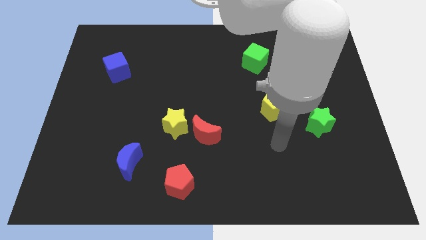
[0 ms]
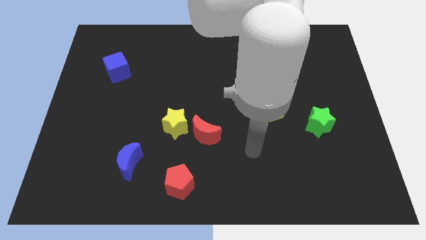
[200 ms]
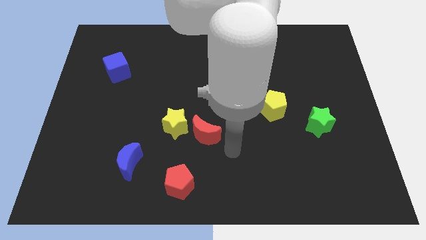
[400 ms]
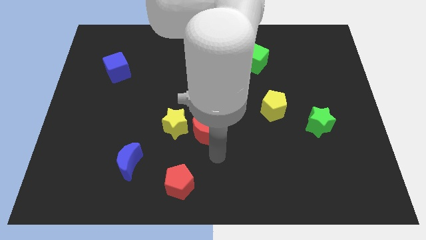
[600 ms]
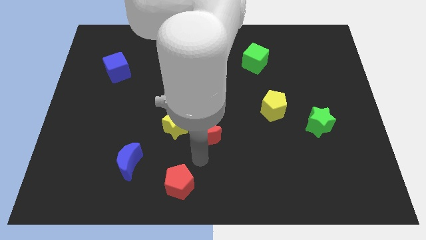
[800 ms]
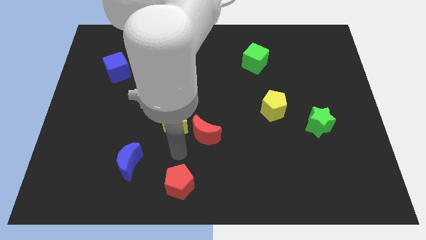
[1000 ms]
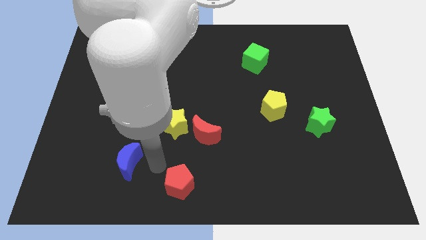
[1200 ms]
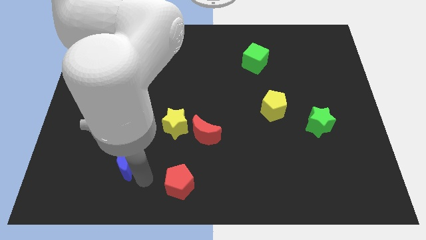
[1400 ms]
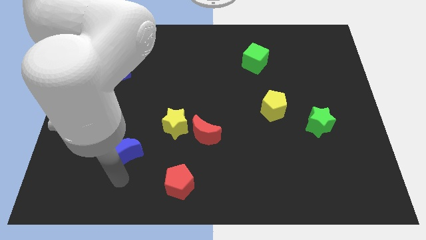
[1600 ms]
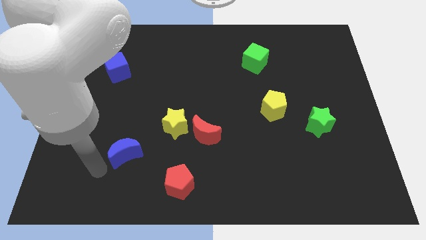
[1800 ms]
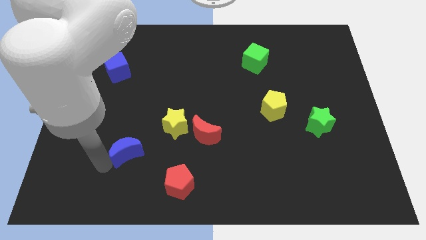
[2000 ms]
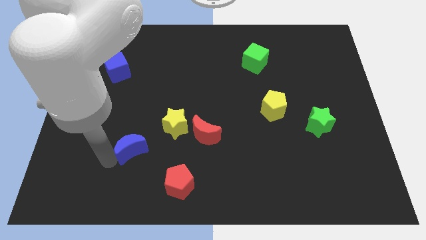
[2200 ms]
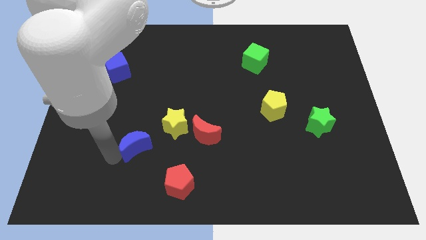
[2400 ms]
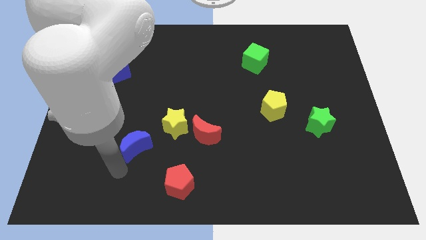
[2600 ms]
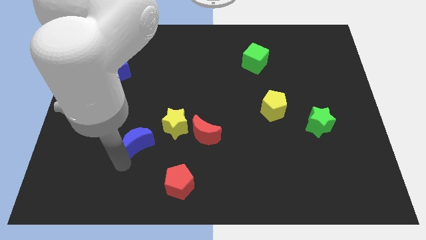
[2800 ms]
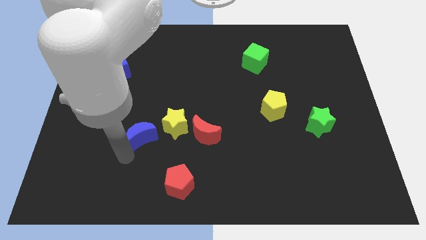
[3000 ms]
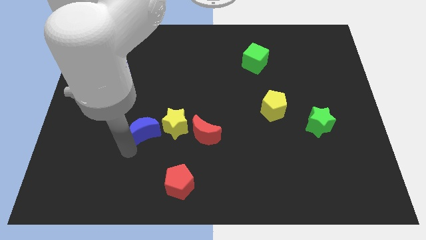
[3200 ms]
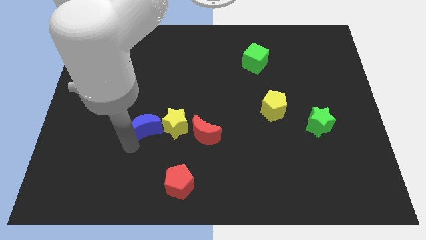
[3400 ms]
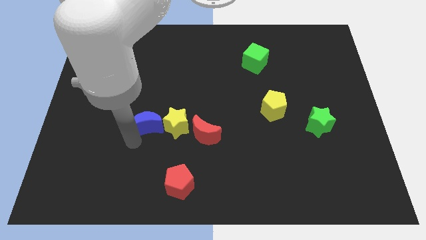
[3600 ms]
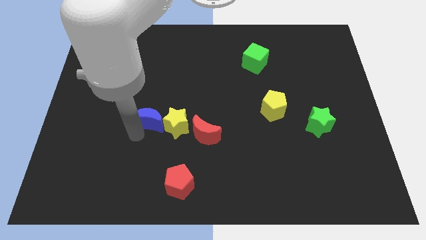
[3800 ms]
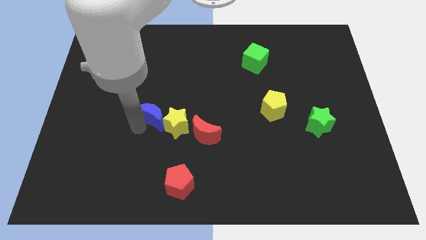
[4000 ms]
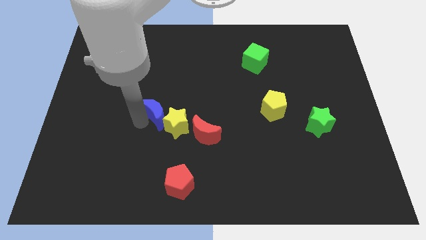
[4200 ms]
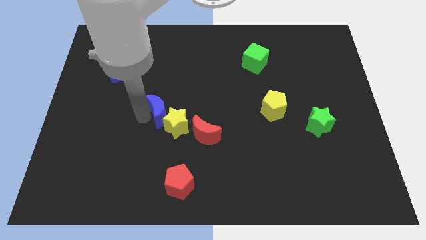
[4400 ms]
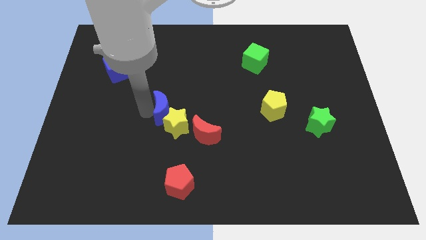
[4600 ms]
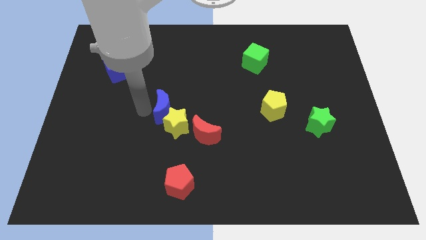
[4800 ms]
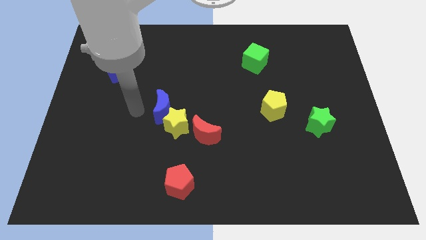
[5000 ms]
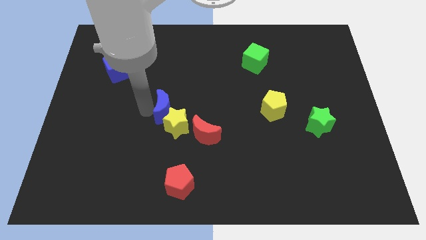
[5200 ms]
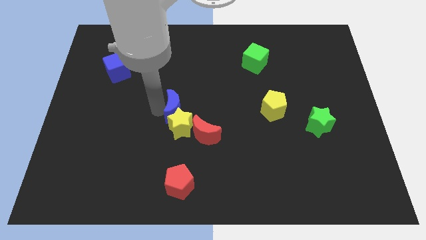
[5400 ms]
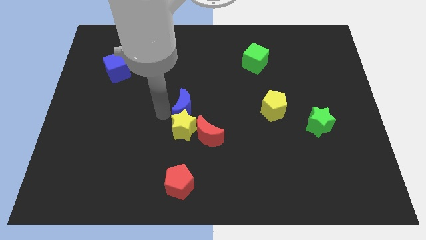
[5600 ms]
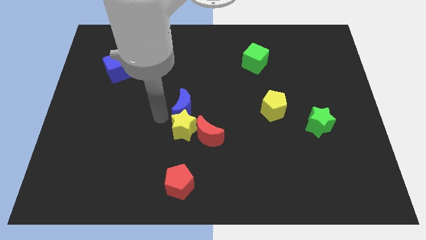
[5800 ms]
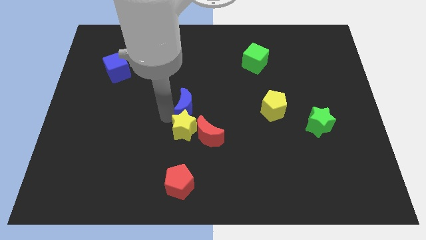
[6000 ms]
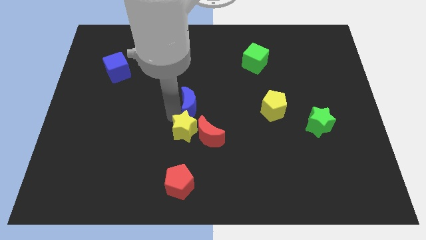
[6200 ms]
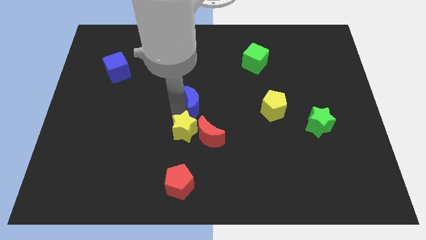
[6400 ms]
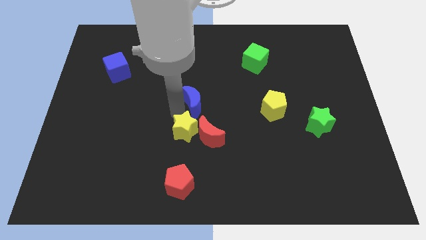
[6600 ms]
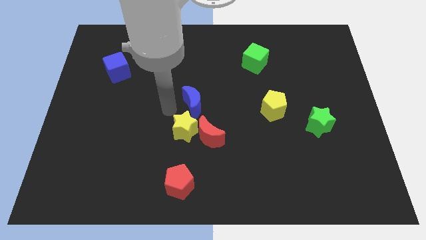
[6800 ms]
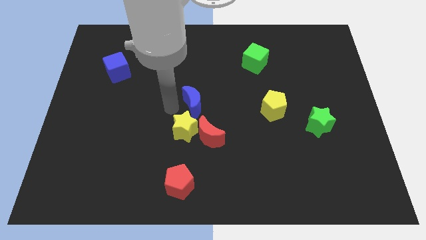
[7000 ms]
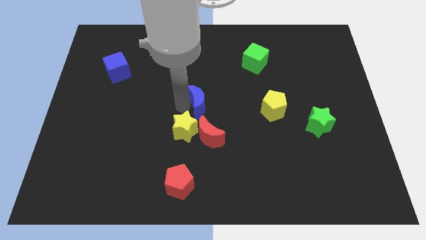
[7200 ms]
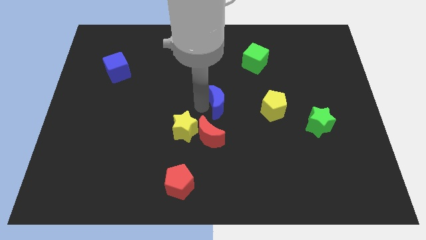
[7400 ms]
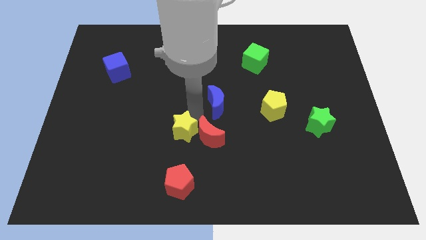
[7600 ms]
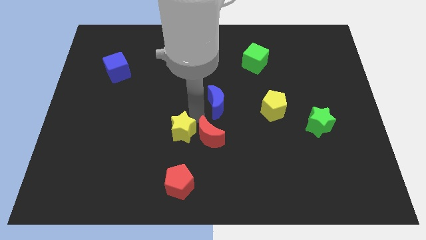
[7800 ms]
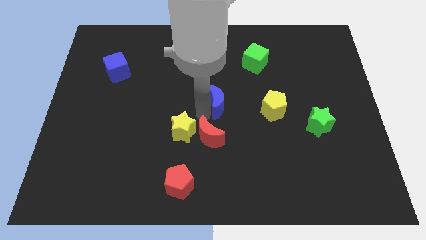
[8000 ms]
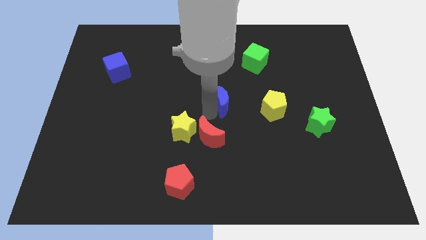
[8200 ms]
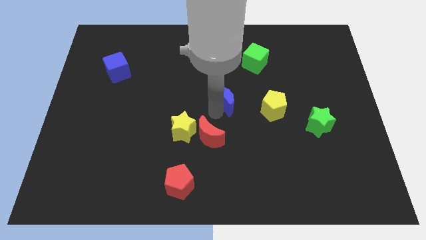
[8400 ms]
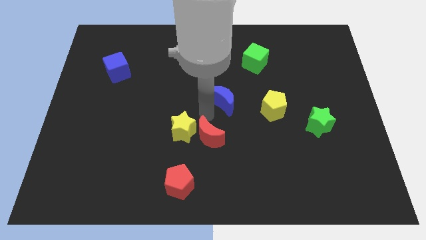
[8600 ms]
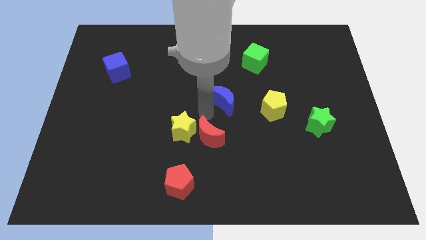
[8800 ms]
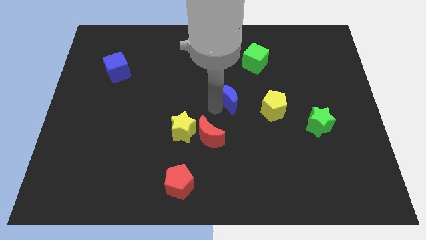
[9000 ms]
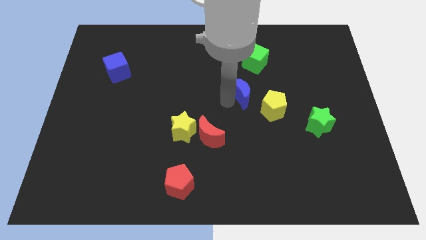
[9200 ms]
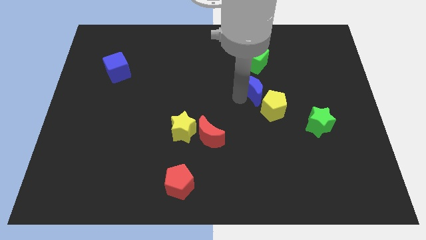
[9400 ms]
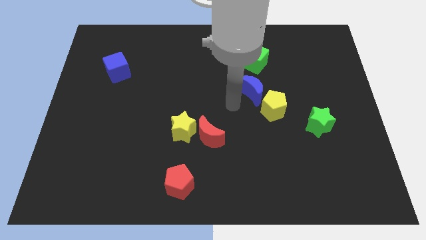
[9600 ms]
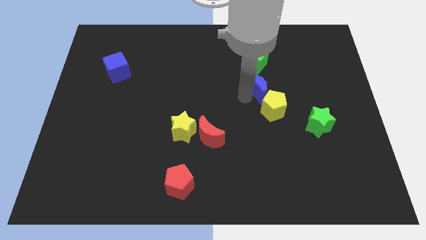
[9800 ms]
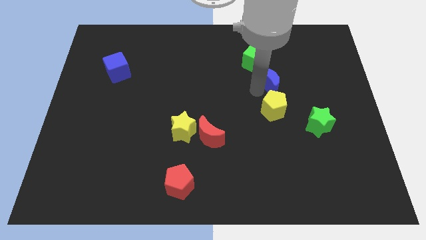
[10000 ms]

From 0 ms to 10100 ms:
slide the blue moon diagonally down and to the right of the green cube

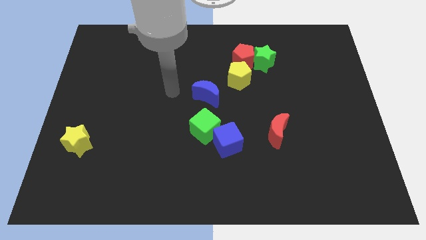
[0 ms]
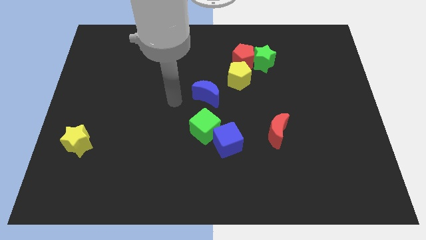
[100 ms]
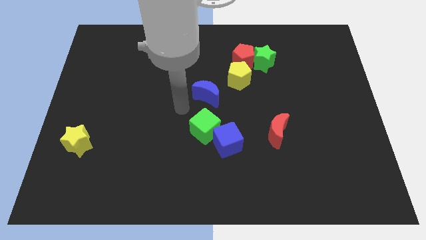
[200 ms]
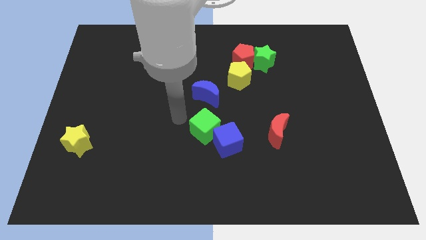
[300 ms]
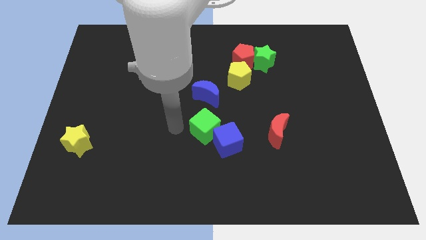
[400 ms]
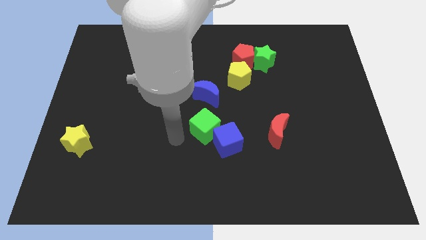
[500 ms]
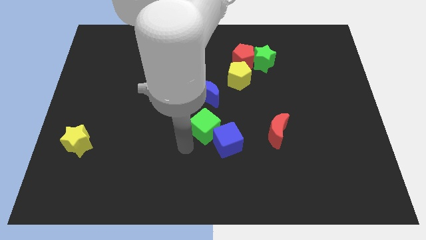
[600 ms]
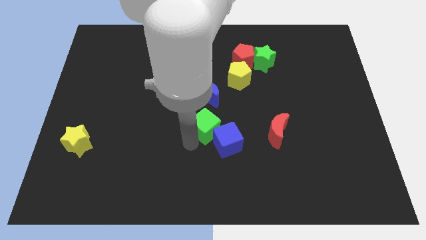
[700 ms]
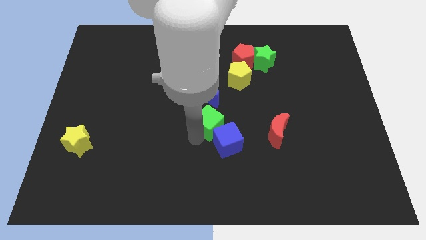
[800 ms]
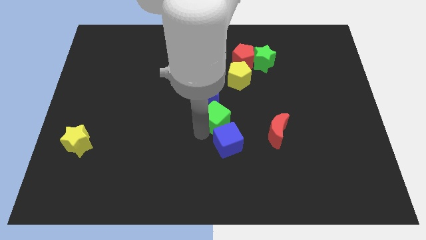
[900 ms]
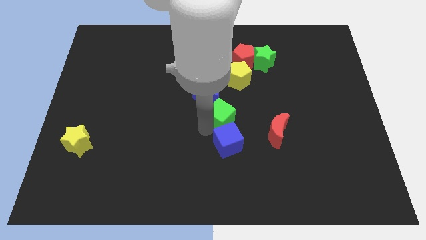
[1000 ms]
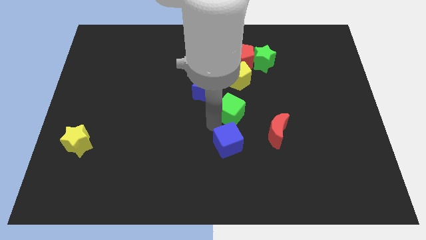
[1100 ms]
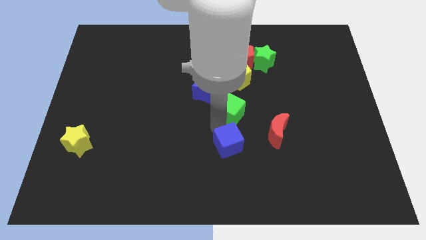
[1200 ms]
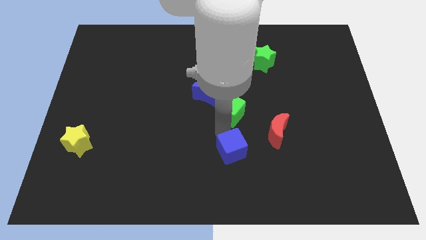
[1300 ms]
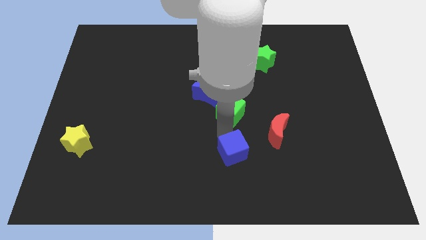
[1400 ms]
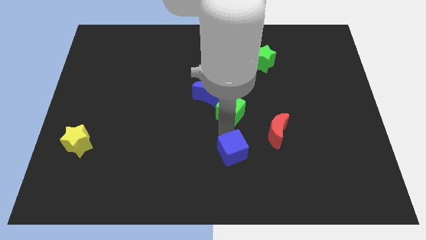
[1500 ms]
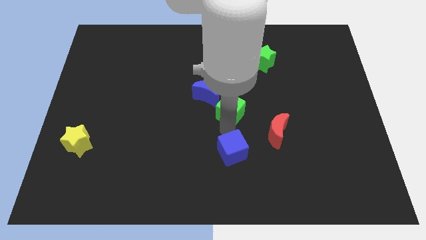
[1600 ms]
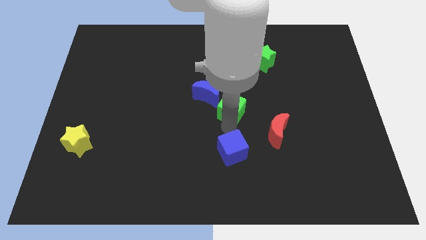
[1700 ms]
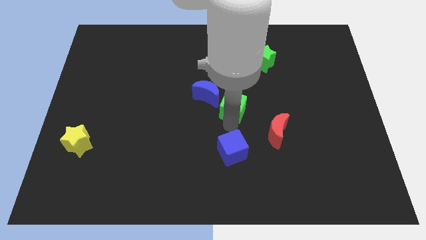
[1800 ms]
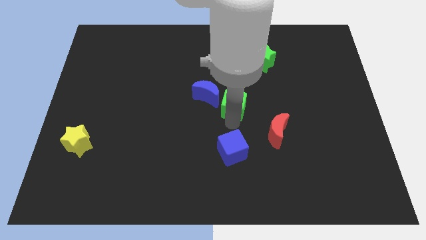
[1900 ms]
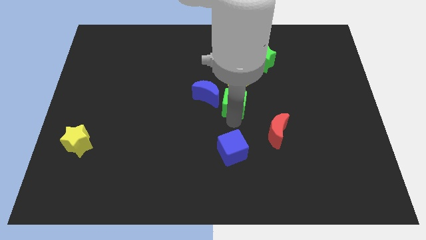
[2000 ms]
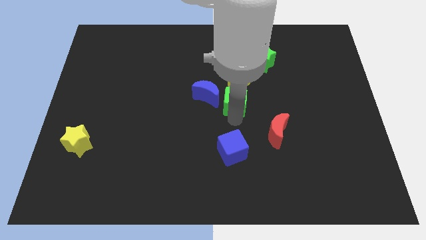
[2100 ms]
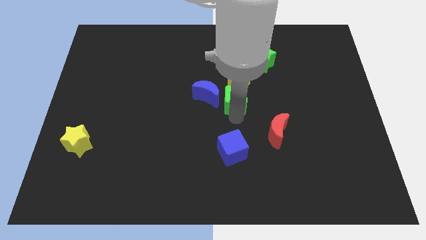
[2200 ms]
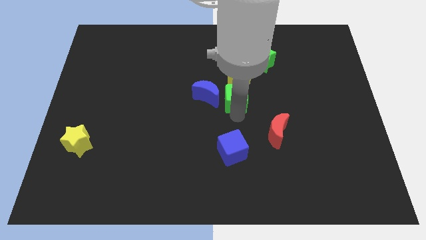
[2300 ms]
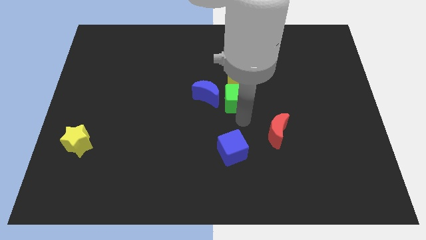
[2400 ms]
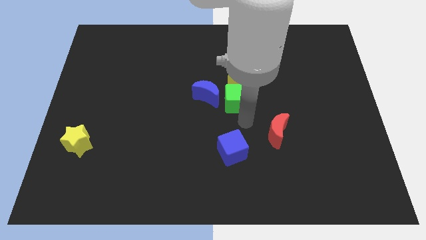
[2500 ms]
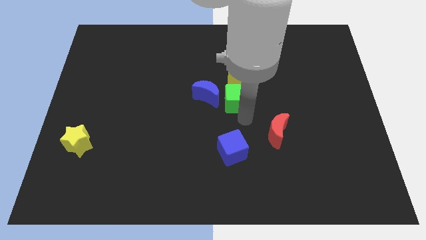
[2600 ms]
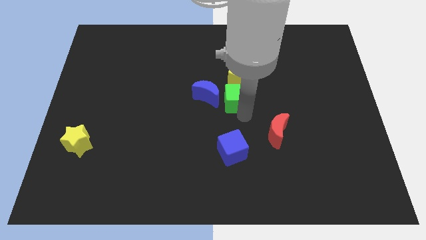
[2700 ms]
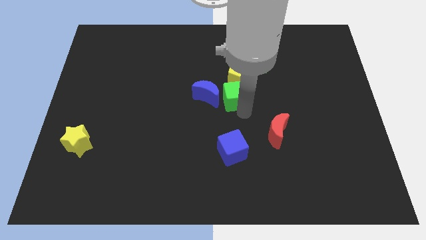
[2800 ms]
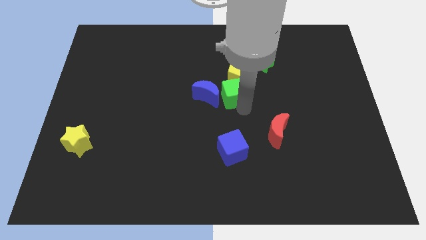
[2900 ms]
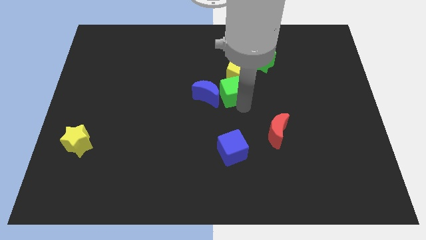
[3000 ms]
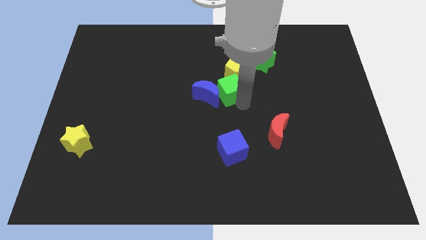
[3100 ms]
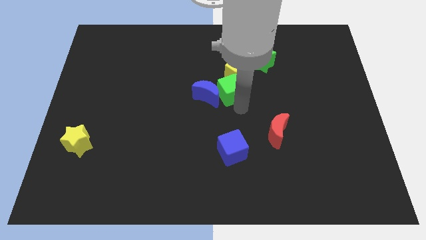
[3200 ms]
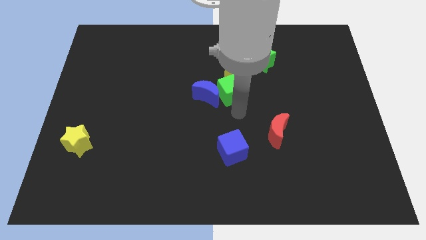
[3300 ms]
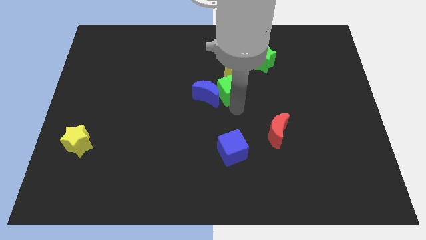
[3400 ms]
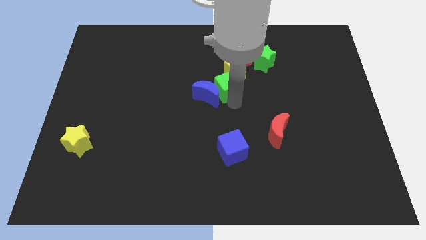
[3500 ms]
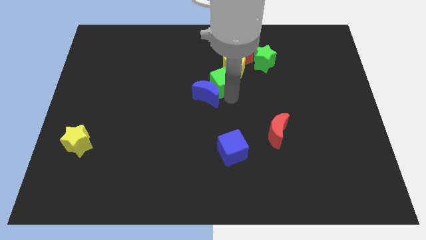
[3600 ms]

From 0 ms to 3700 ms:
move the green cube to the bottom left side of the red pentagon
